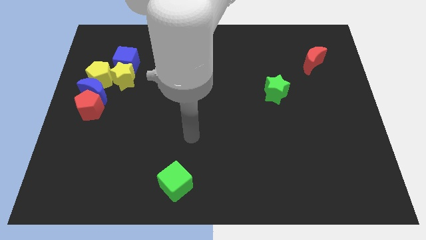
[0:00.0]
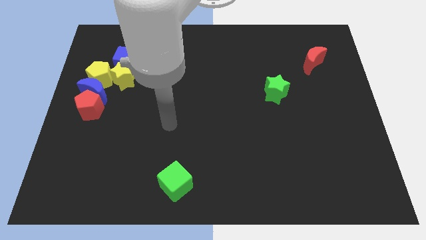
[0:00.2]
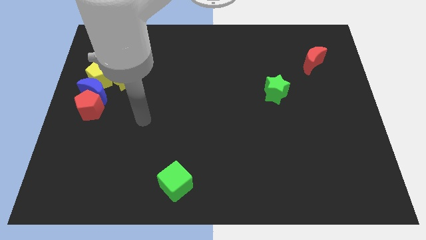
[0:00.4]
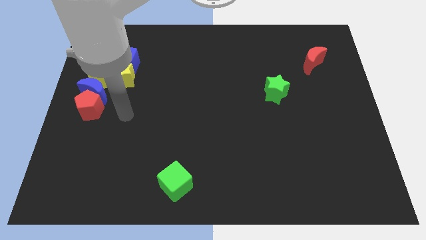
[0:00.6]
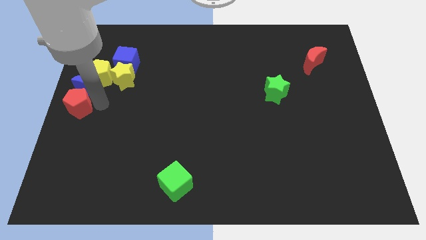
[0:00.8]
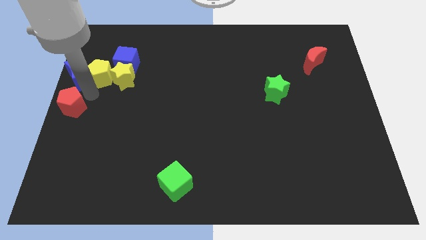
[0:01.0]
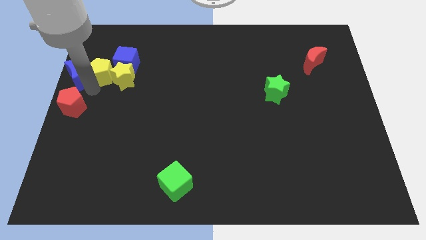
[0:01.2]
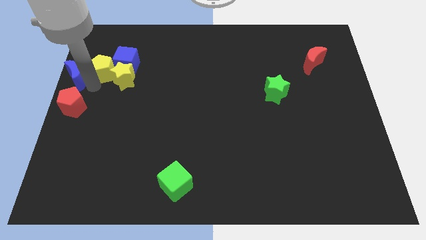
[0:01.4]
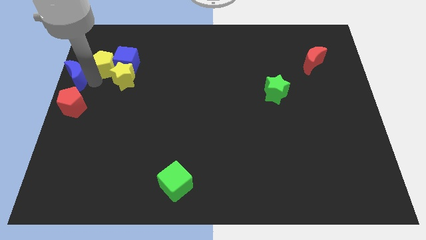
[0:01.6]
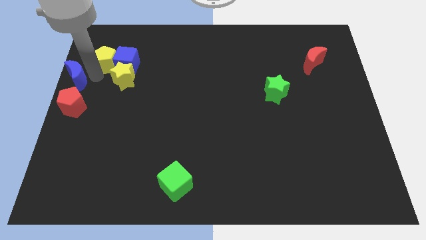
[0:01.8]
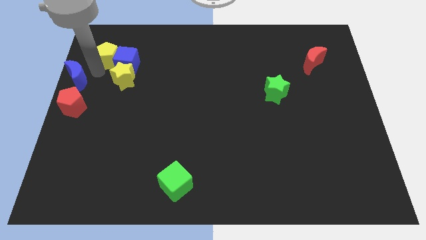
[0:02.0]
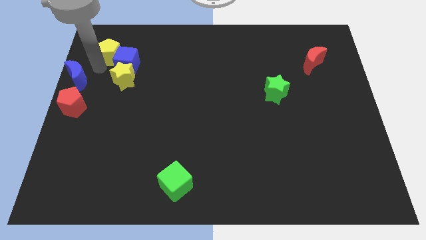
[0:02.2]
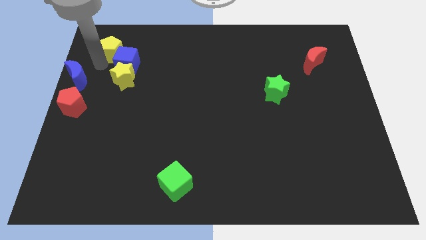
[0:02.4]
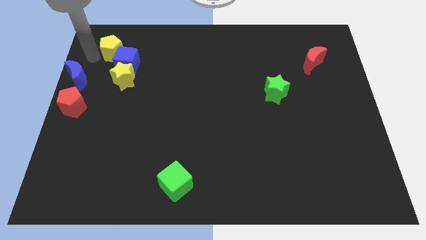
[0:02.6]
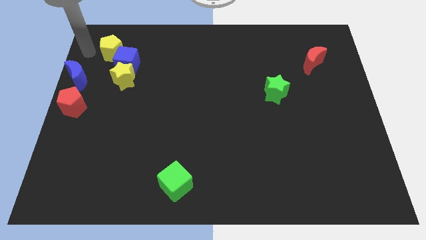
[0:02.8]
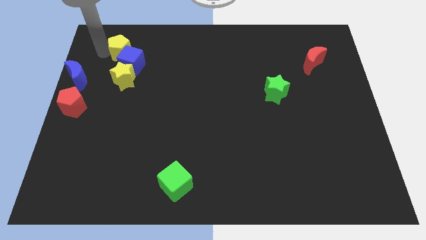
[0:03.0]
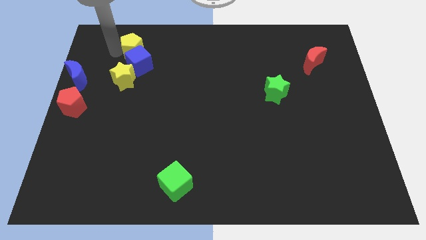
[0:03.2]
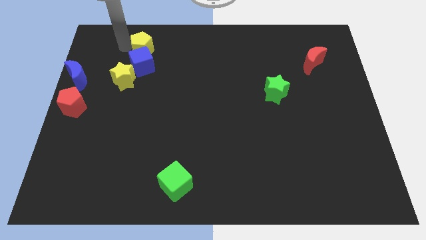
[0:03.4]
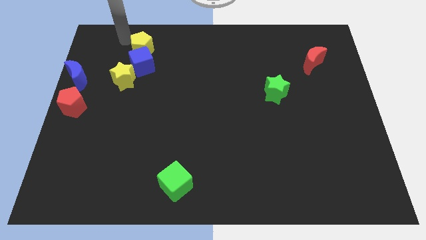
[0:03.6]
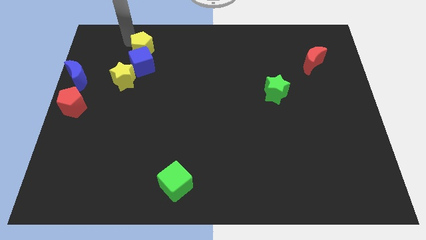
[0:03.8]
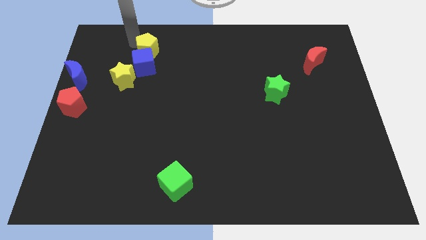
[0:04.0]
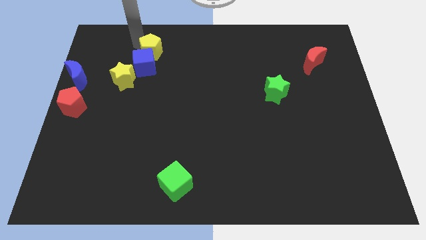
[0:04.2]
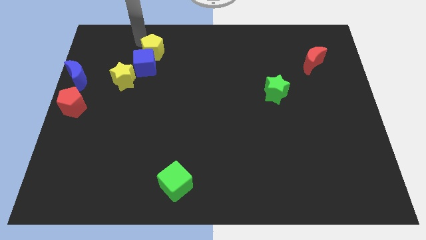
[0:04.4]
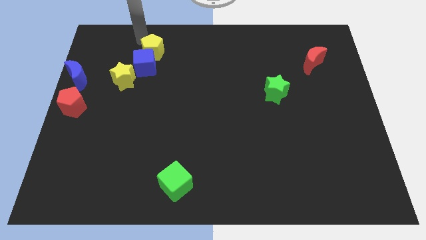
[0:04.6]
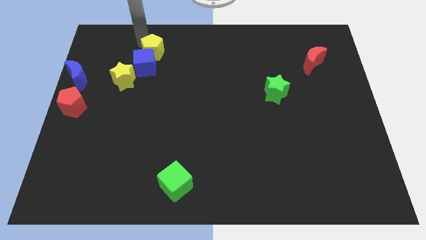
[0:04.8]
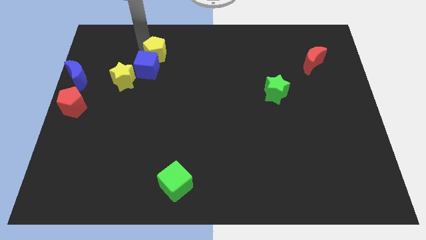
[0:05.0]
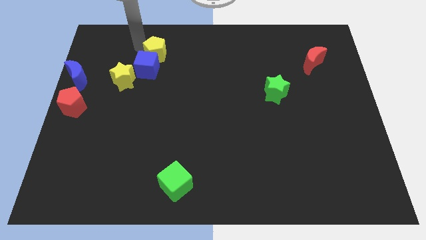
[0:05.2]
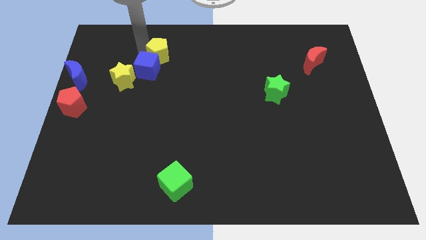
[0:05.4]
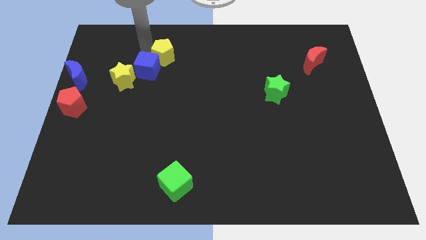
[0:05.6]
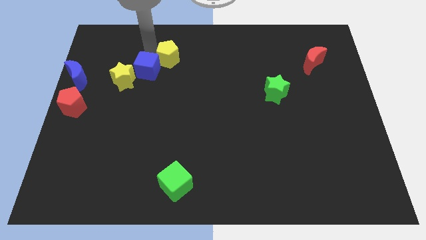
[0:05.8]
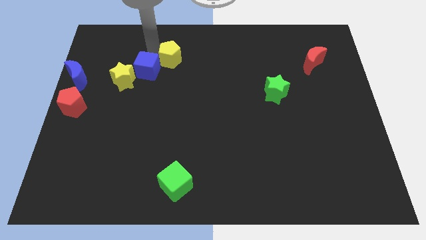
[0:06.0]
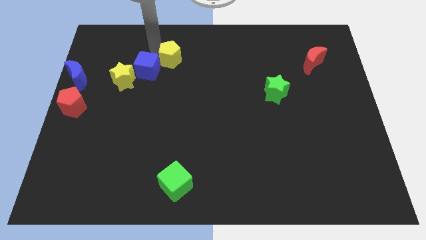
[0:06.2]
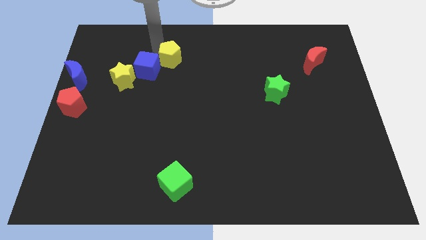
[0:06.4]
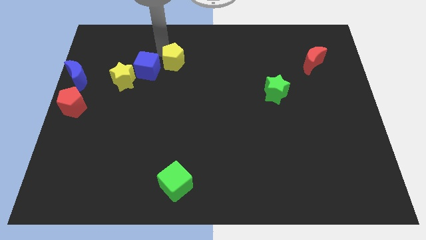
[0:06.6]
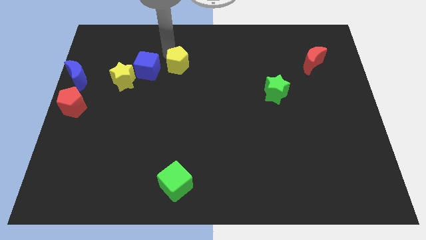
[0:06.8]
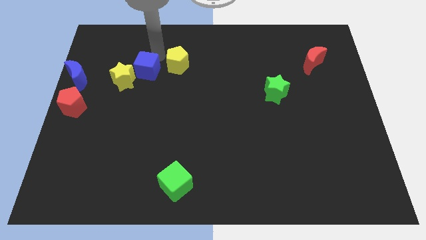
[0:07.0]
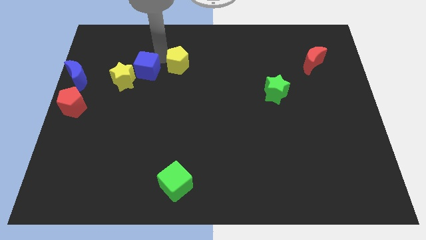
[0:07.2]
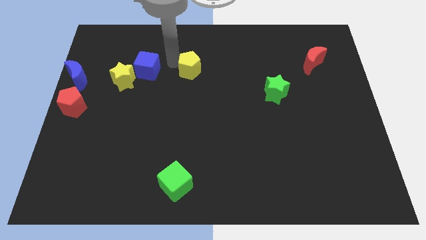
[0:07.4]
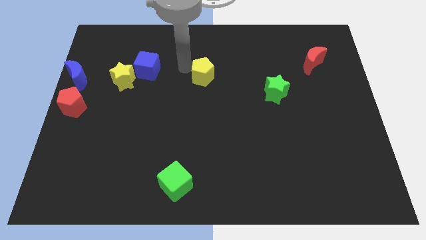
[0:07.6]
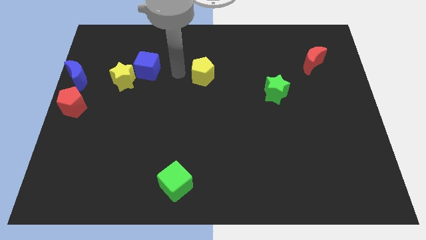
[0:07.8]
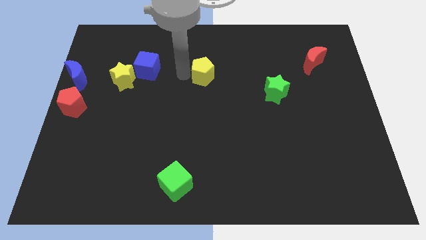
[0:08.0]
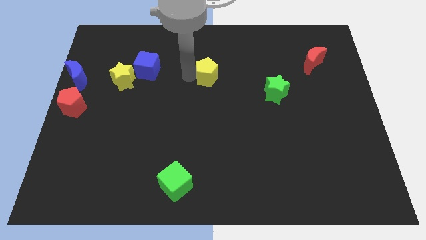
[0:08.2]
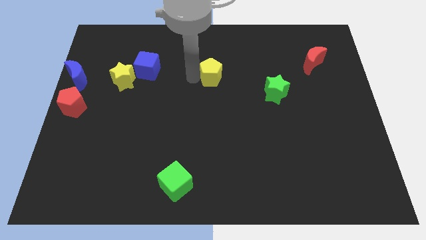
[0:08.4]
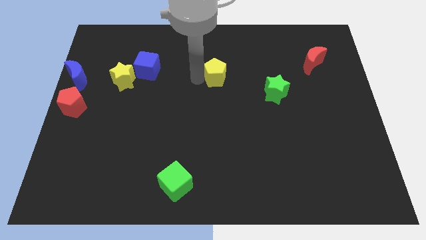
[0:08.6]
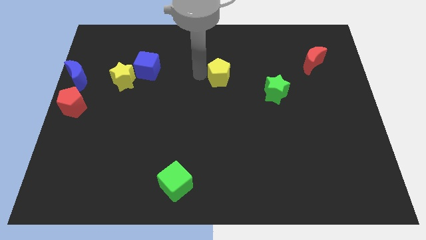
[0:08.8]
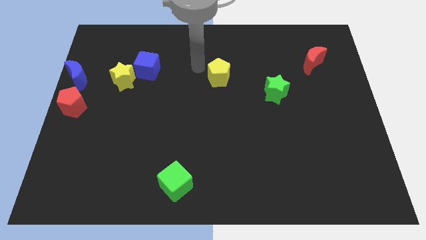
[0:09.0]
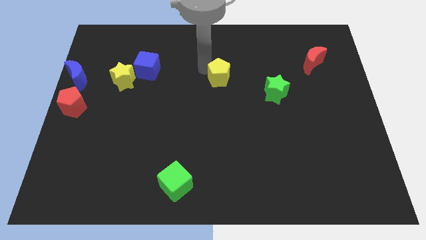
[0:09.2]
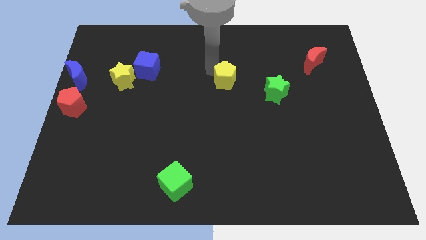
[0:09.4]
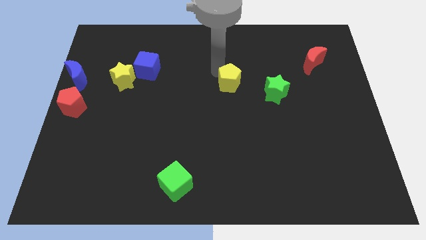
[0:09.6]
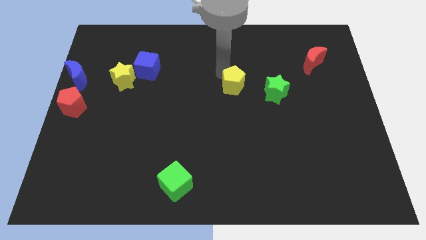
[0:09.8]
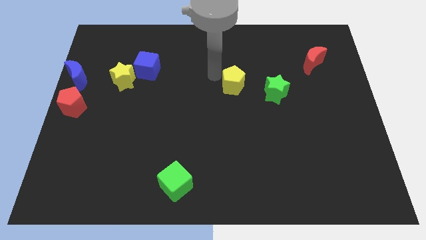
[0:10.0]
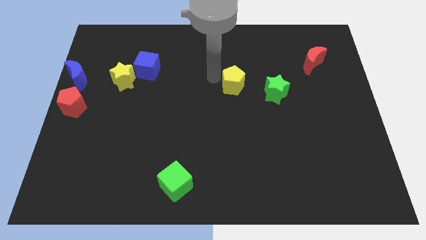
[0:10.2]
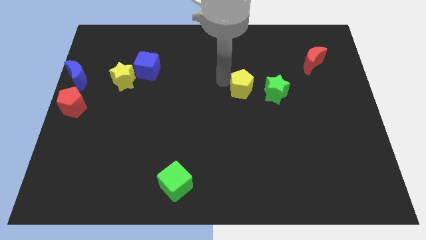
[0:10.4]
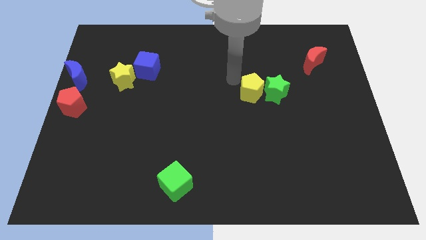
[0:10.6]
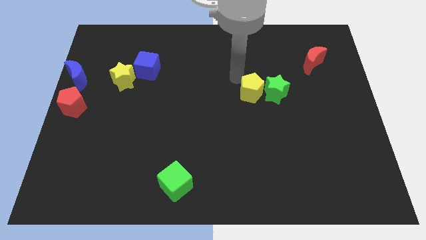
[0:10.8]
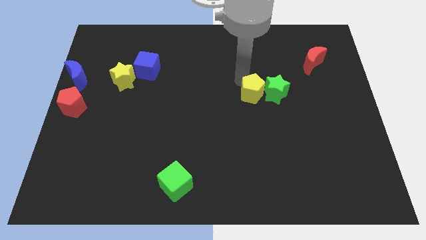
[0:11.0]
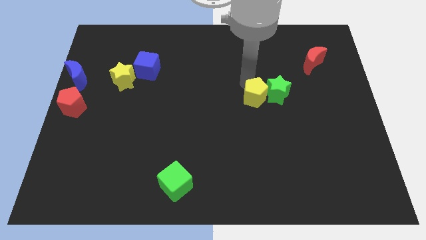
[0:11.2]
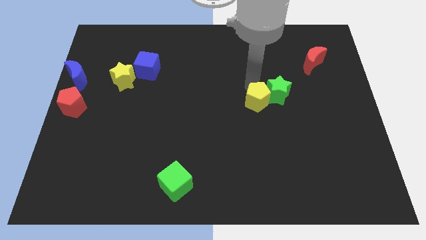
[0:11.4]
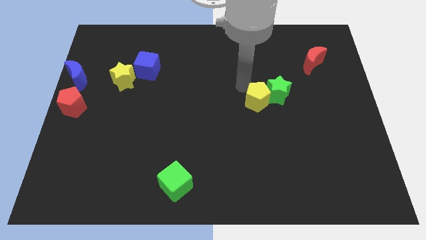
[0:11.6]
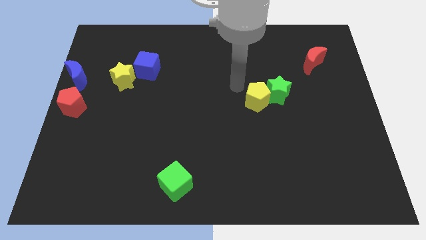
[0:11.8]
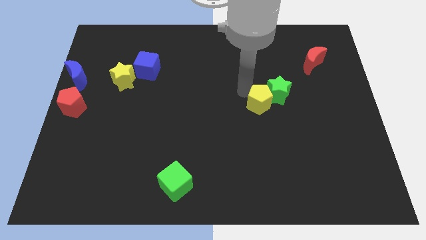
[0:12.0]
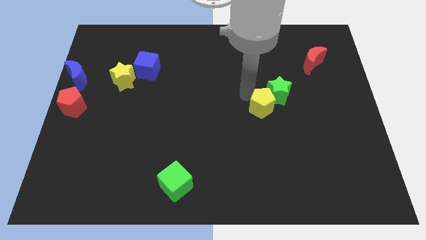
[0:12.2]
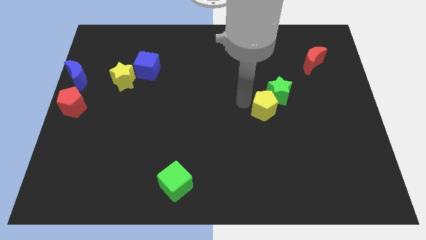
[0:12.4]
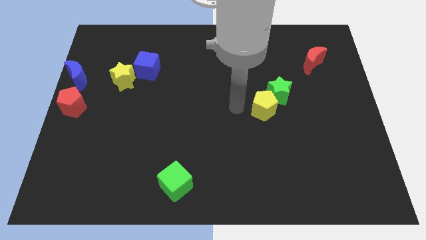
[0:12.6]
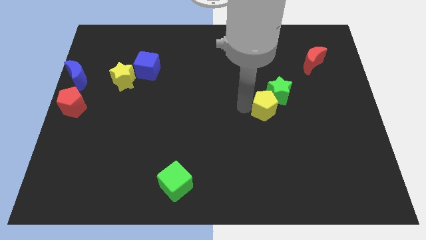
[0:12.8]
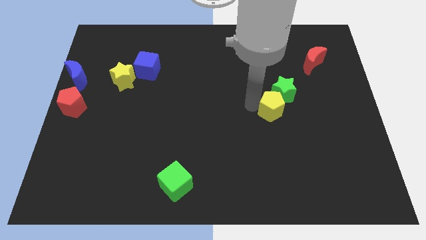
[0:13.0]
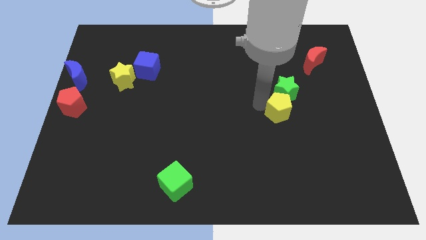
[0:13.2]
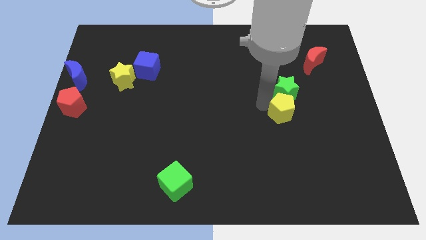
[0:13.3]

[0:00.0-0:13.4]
put the yellow pentagon diagonally down and to the right of the green star

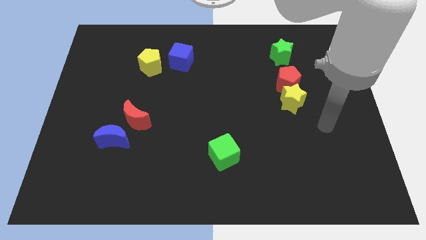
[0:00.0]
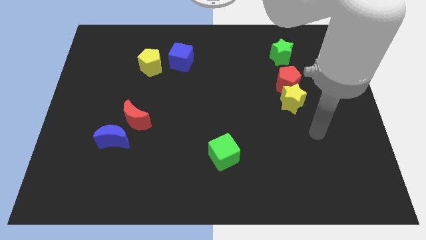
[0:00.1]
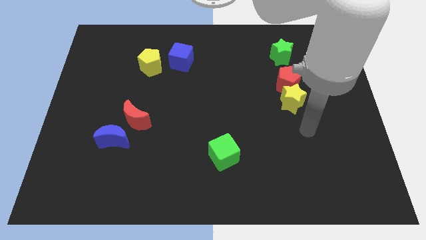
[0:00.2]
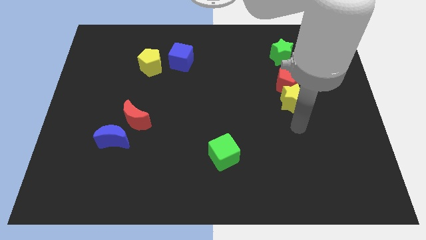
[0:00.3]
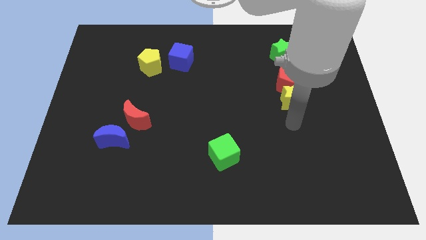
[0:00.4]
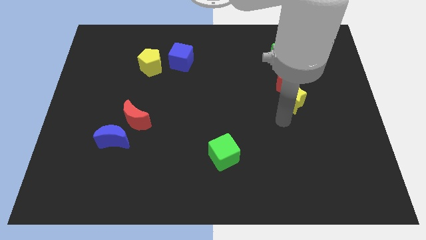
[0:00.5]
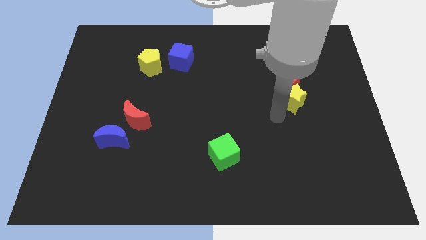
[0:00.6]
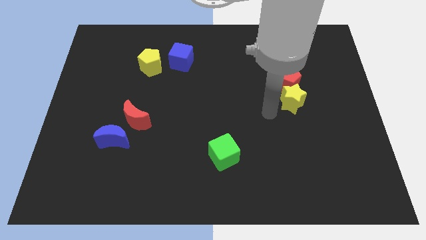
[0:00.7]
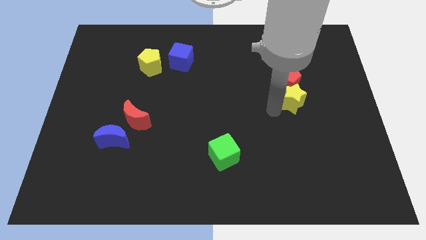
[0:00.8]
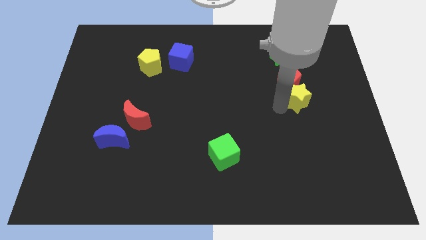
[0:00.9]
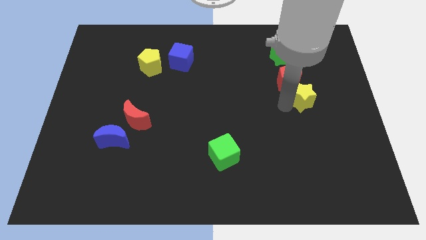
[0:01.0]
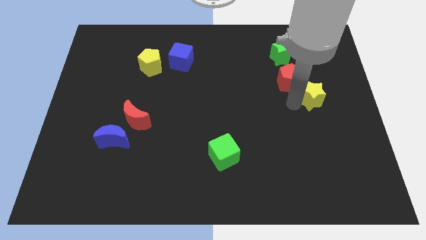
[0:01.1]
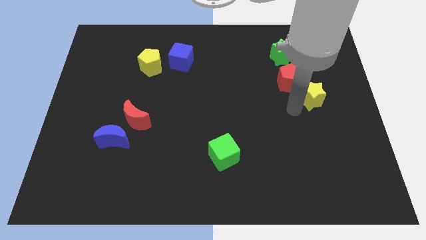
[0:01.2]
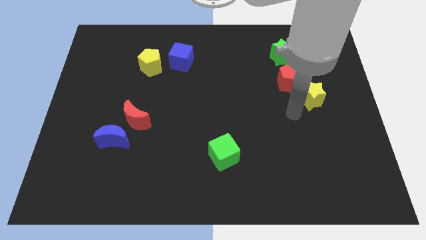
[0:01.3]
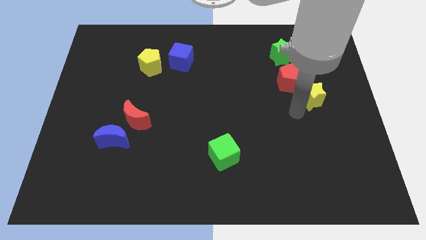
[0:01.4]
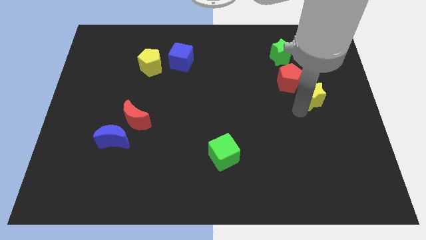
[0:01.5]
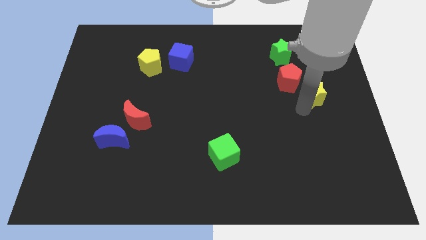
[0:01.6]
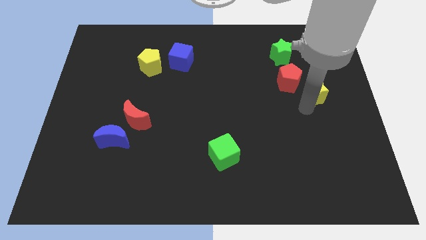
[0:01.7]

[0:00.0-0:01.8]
move the yellow star just right of the red pentagon
